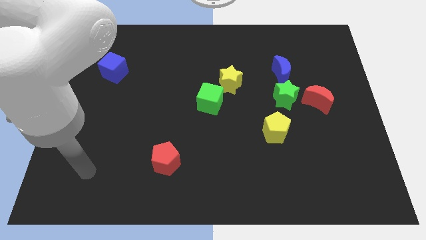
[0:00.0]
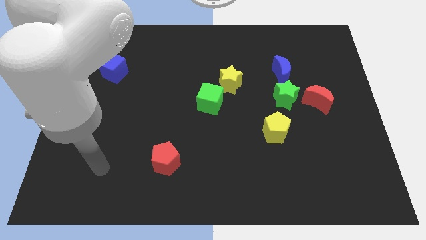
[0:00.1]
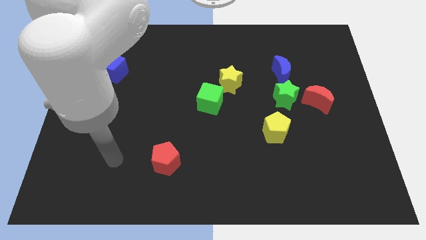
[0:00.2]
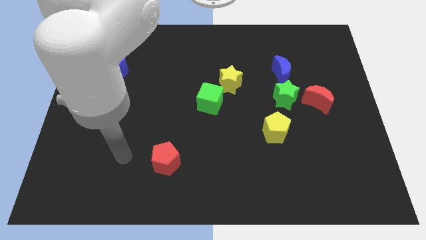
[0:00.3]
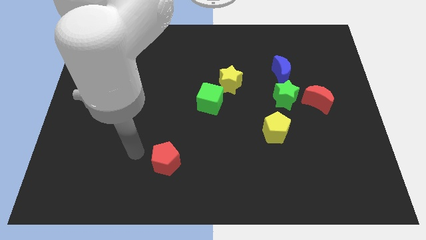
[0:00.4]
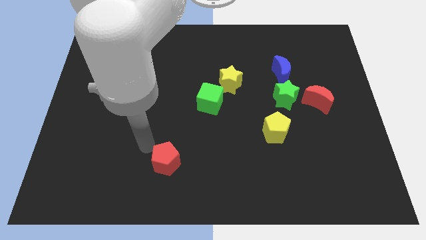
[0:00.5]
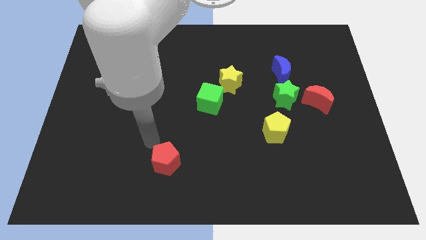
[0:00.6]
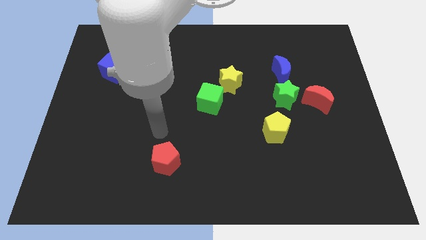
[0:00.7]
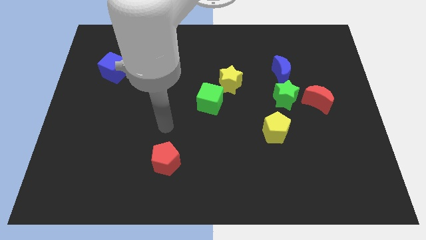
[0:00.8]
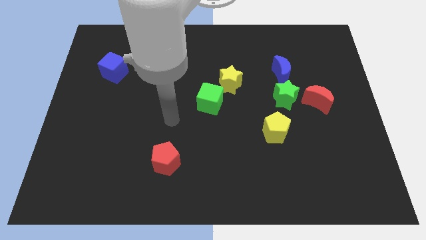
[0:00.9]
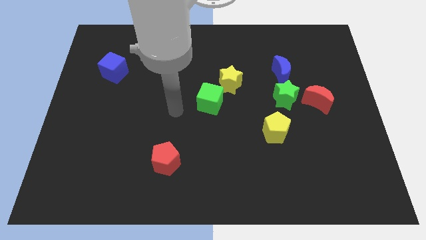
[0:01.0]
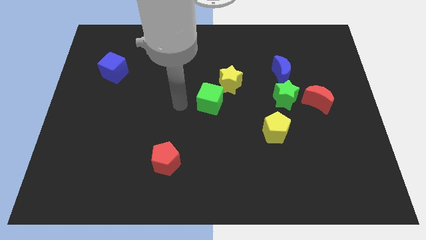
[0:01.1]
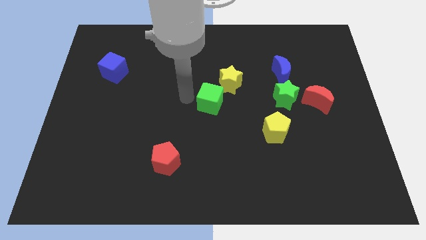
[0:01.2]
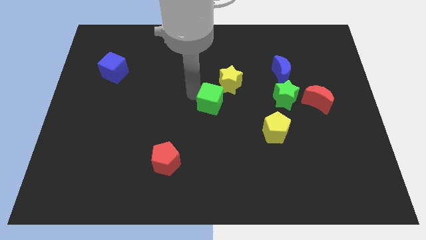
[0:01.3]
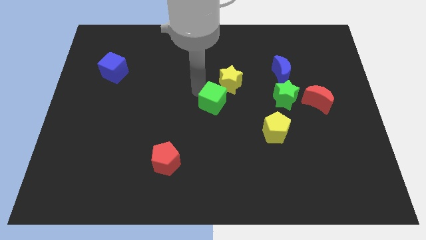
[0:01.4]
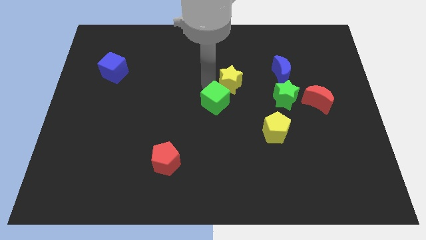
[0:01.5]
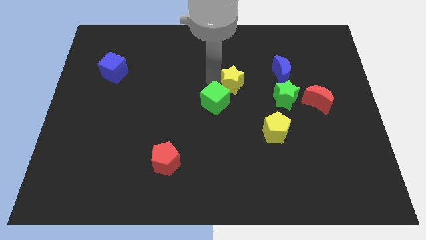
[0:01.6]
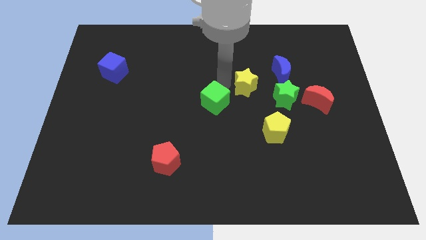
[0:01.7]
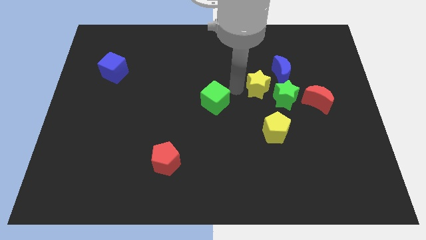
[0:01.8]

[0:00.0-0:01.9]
separate the green cube from the yellow star

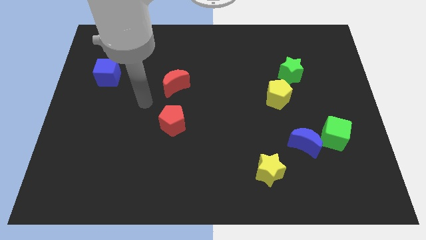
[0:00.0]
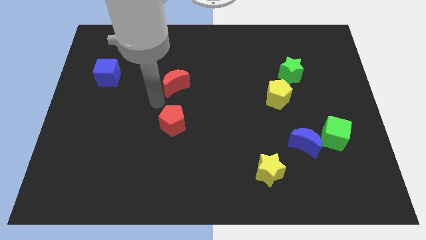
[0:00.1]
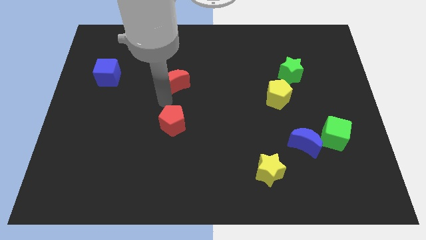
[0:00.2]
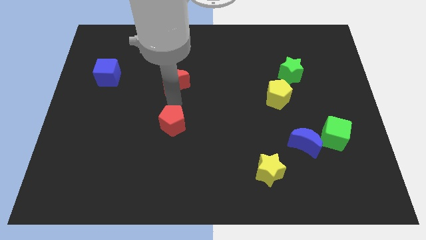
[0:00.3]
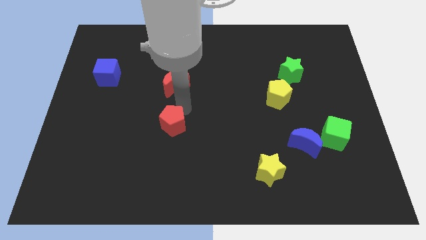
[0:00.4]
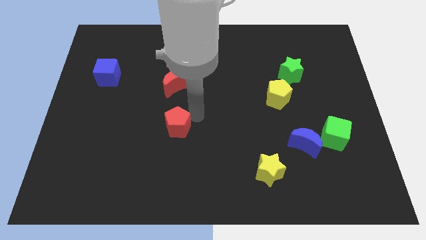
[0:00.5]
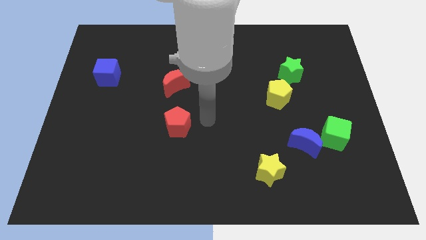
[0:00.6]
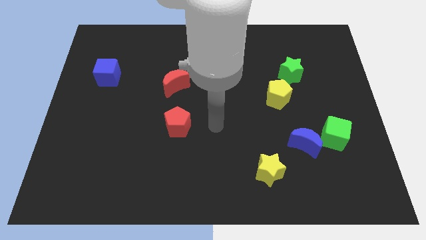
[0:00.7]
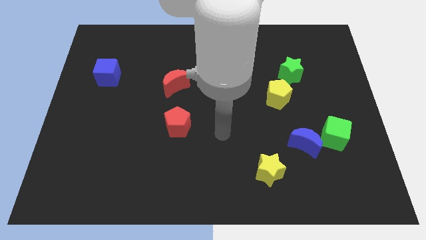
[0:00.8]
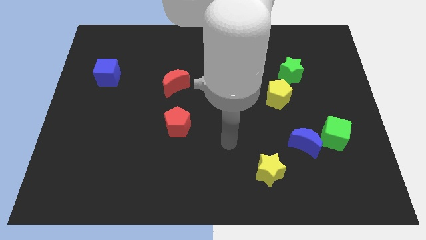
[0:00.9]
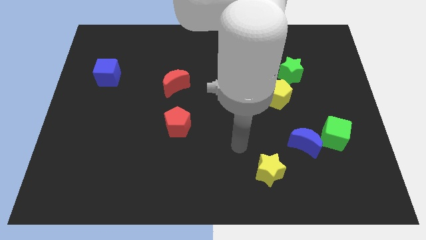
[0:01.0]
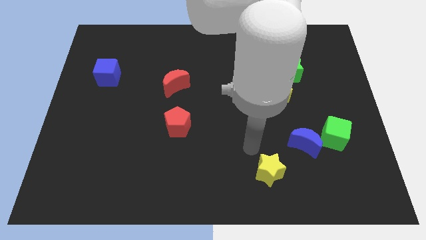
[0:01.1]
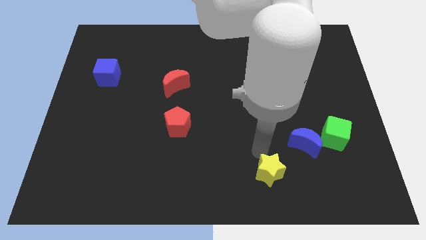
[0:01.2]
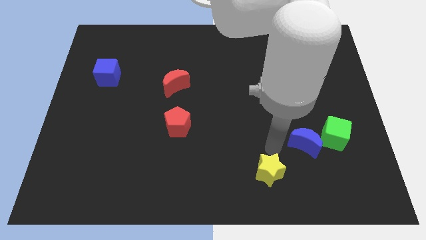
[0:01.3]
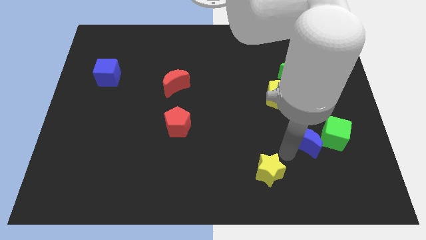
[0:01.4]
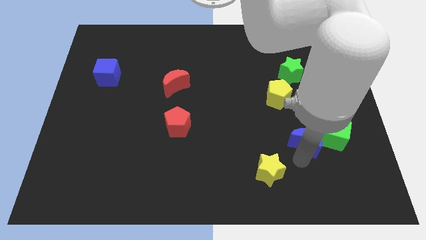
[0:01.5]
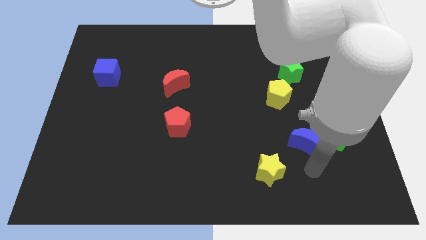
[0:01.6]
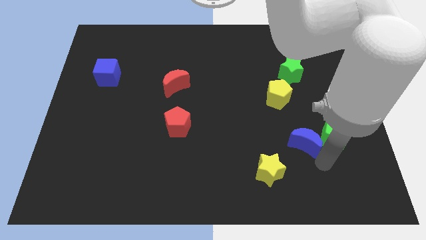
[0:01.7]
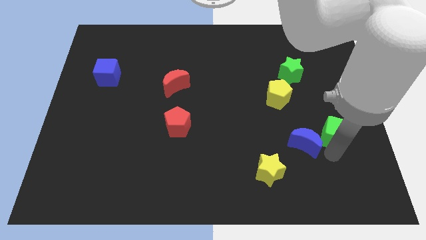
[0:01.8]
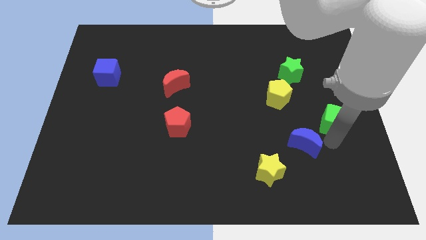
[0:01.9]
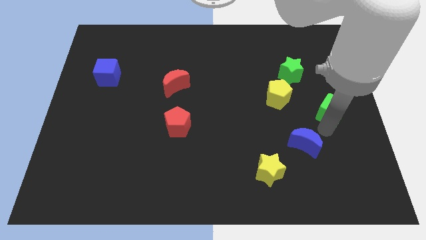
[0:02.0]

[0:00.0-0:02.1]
move the blue moon away from the green cube

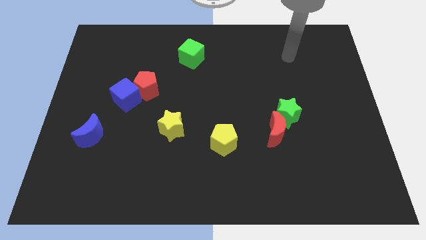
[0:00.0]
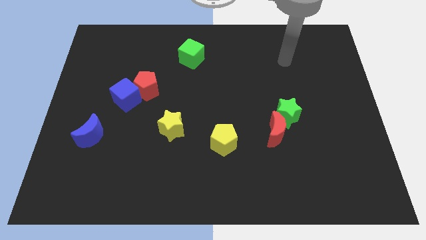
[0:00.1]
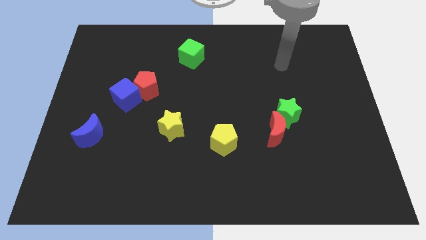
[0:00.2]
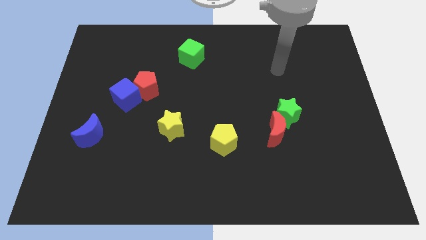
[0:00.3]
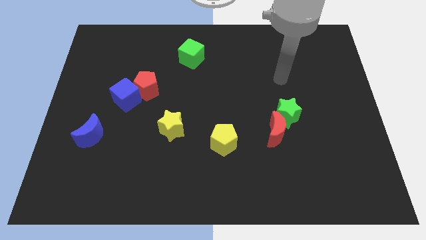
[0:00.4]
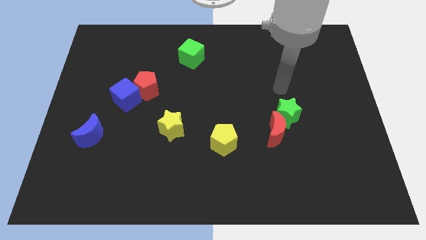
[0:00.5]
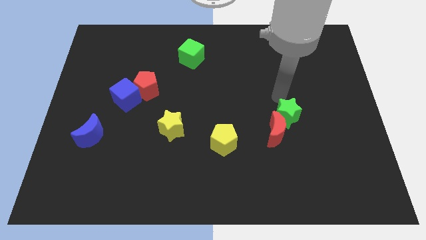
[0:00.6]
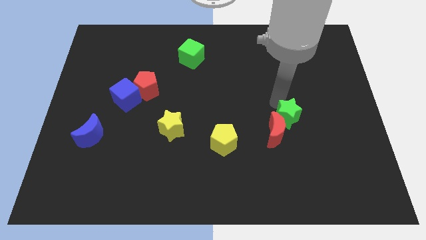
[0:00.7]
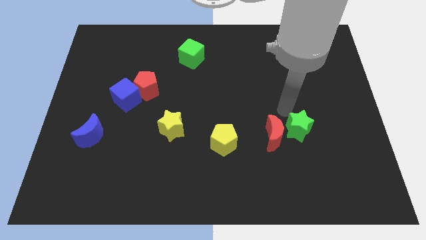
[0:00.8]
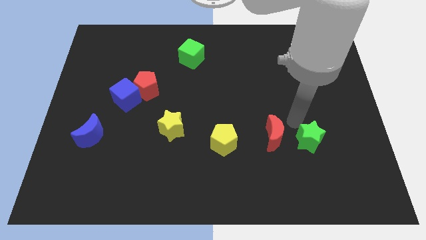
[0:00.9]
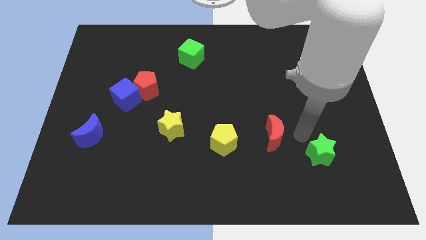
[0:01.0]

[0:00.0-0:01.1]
move the red moon away from the green star

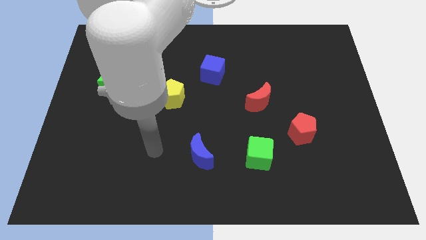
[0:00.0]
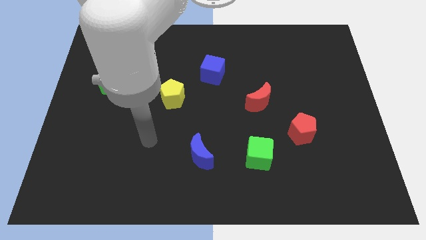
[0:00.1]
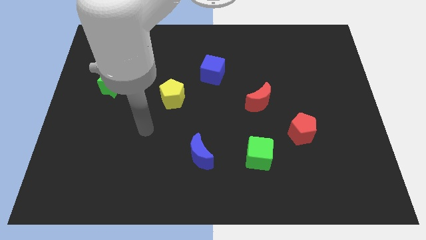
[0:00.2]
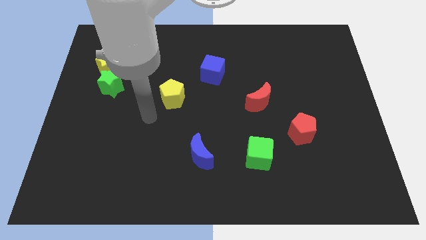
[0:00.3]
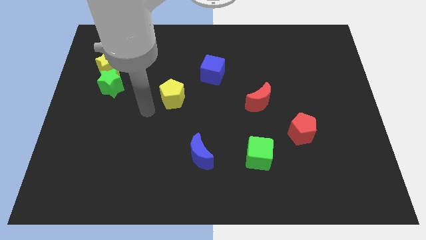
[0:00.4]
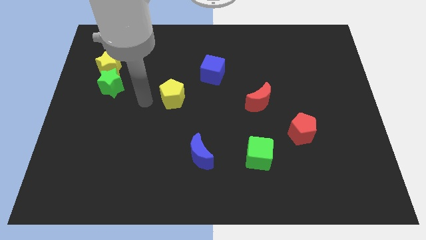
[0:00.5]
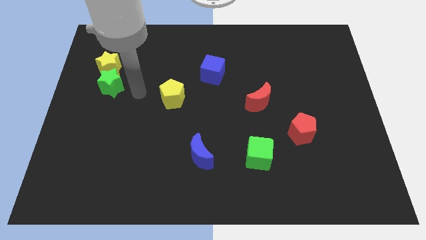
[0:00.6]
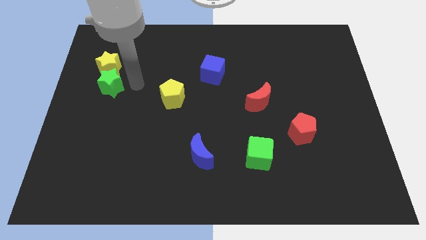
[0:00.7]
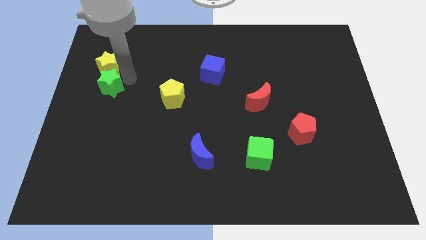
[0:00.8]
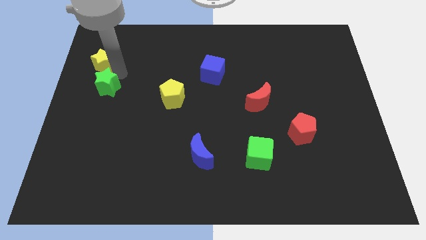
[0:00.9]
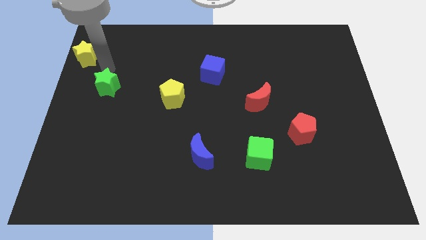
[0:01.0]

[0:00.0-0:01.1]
move the green star away from the yellow star

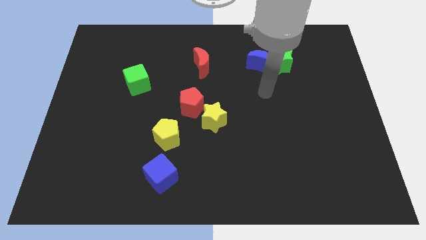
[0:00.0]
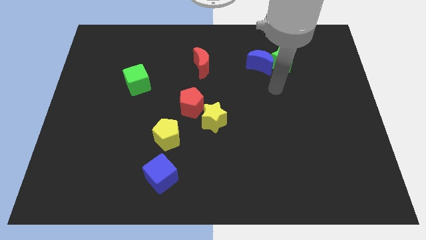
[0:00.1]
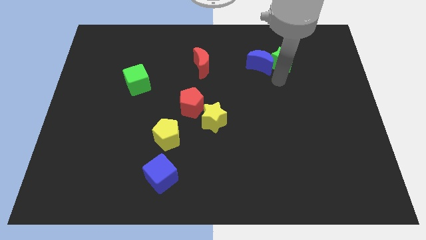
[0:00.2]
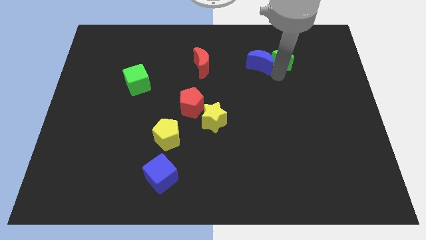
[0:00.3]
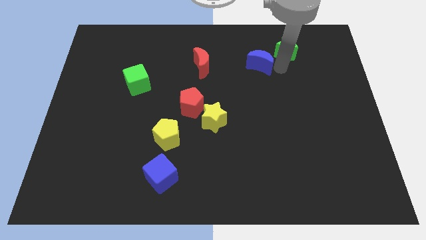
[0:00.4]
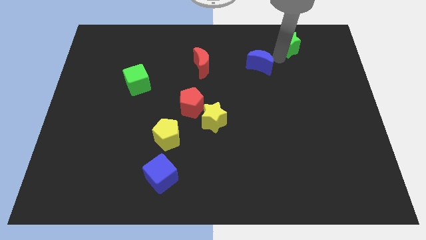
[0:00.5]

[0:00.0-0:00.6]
pull the blue moon apart from the green star

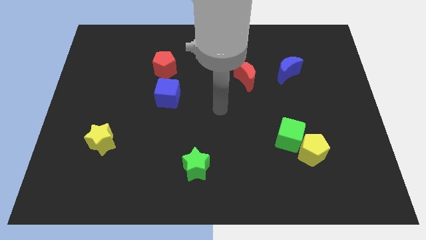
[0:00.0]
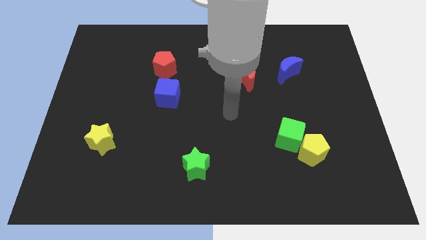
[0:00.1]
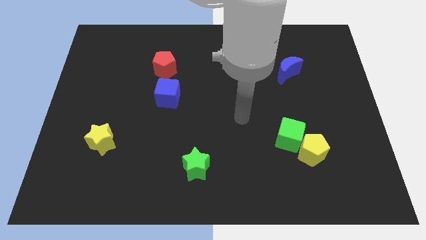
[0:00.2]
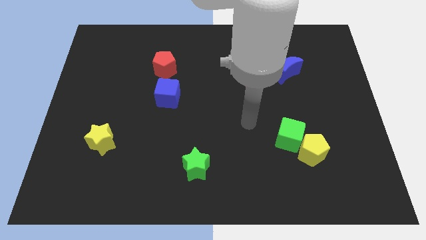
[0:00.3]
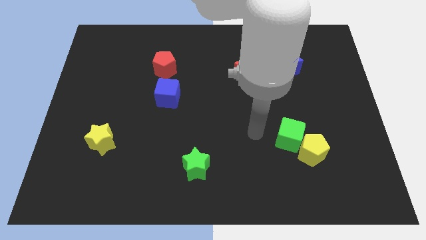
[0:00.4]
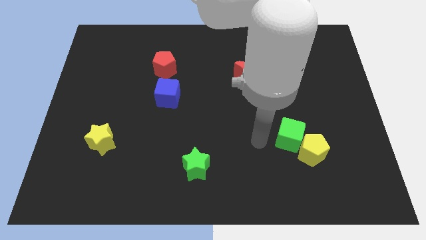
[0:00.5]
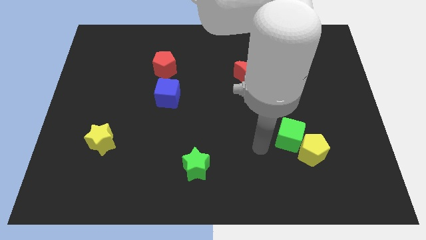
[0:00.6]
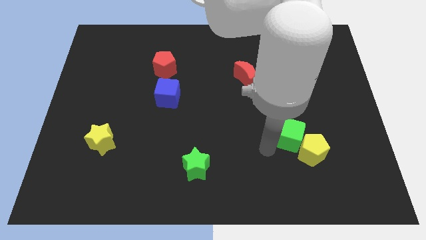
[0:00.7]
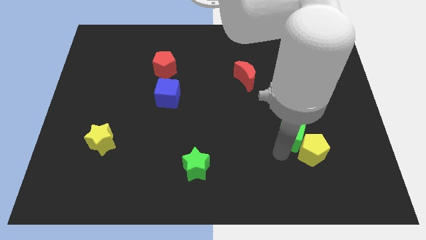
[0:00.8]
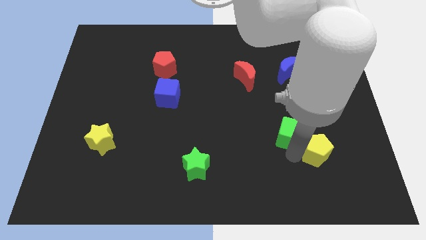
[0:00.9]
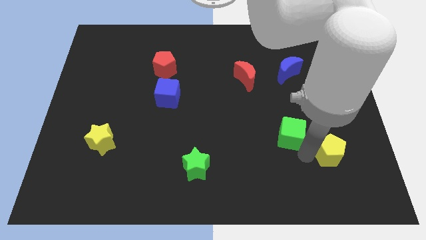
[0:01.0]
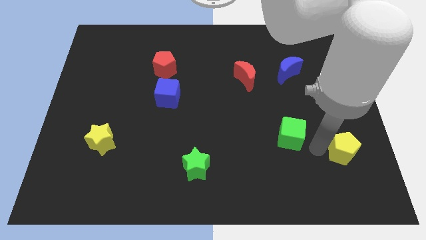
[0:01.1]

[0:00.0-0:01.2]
pull the green cube apart from the yellow pentagon

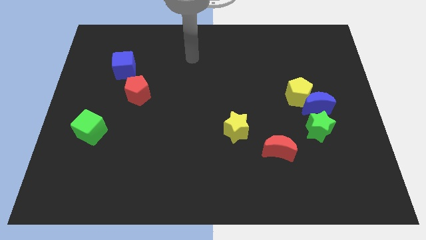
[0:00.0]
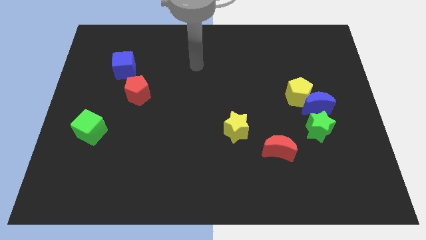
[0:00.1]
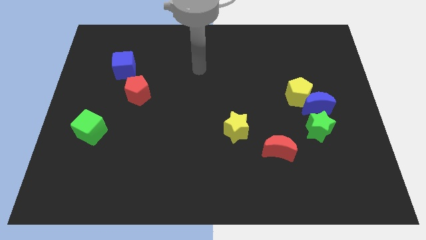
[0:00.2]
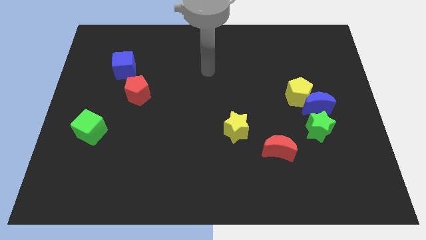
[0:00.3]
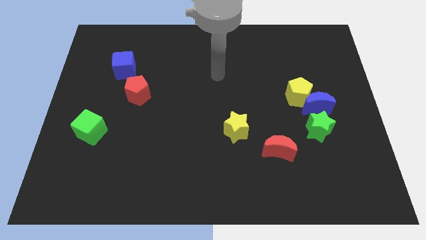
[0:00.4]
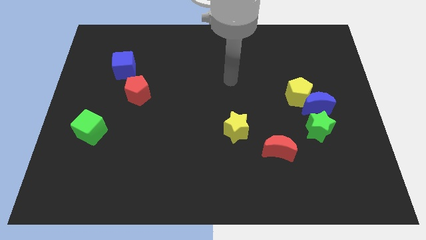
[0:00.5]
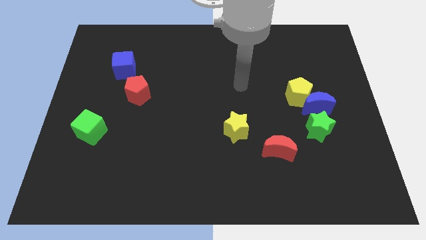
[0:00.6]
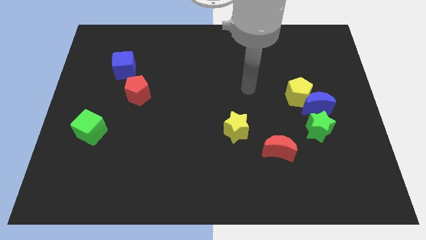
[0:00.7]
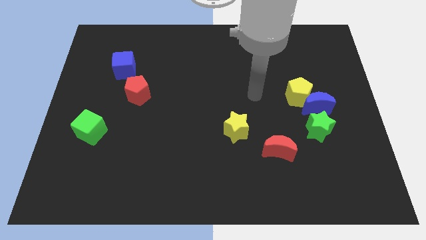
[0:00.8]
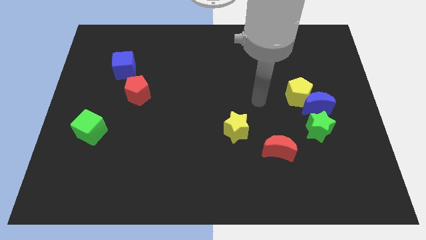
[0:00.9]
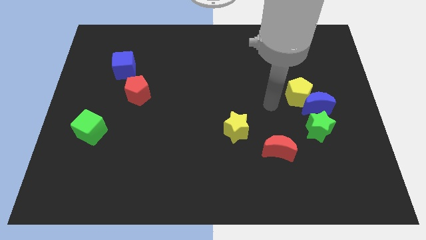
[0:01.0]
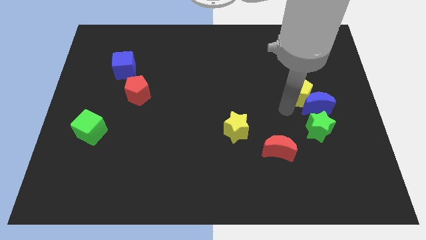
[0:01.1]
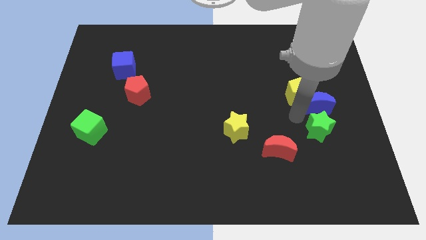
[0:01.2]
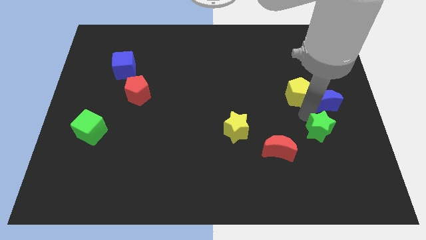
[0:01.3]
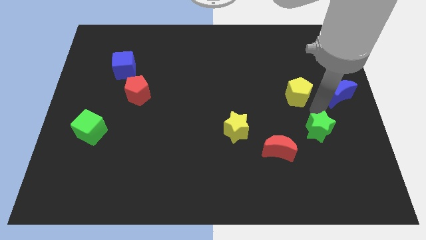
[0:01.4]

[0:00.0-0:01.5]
separate the yellow pentagon from the blue moon
